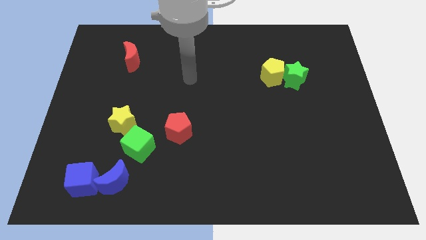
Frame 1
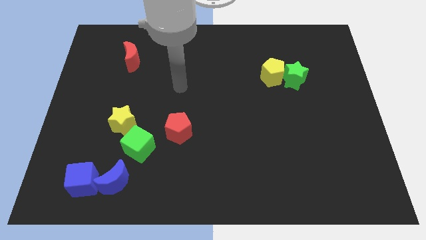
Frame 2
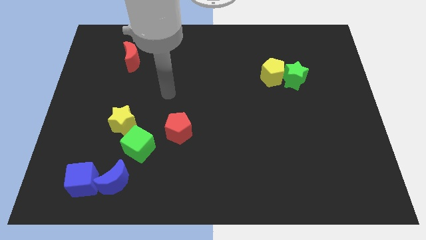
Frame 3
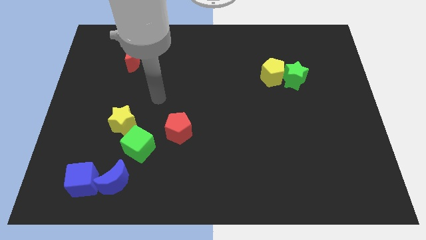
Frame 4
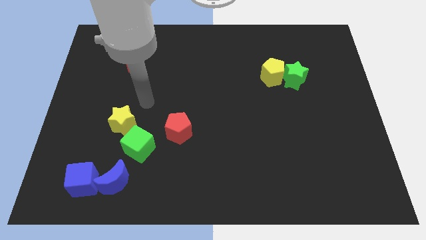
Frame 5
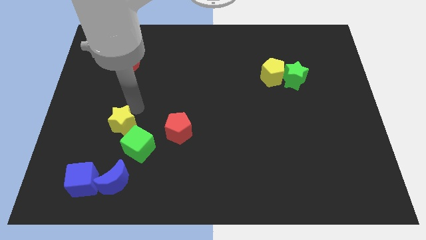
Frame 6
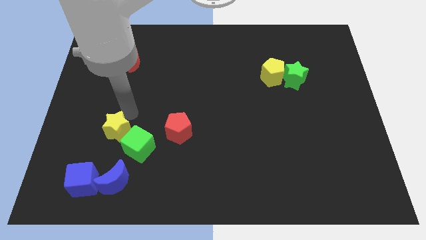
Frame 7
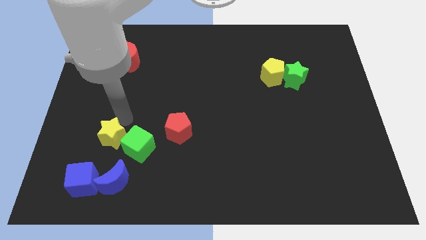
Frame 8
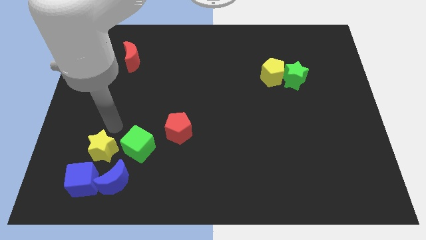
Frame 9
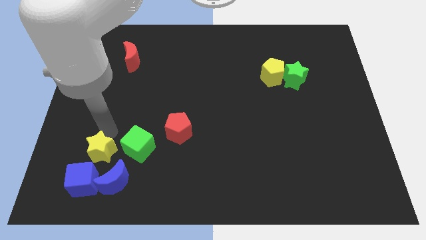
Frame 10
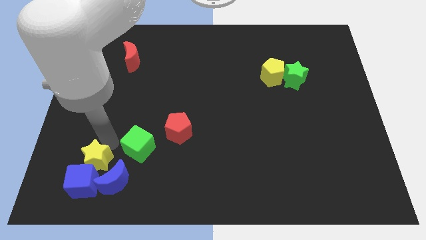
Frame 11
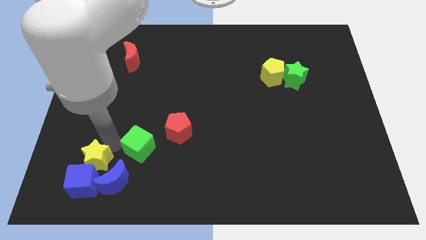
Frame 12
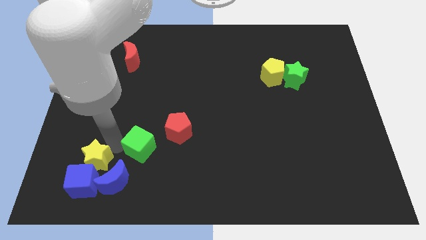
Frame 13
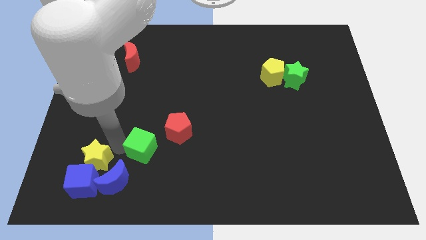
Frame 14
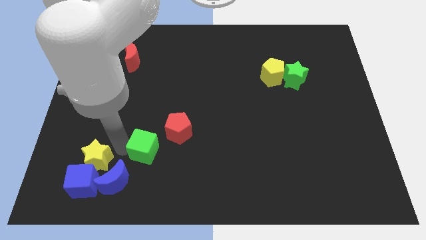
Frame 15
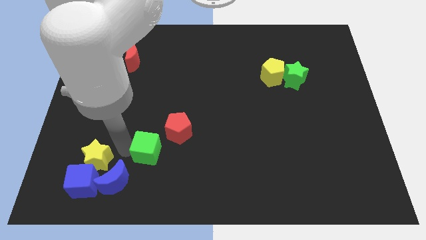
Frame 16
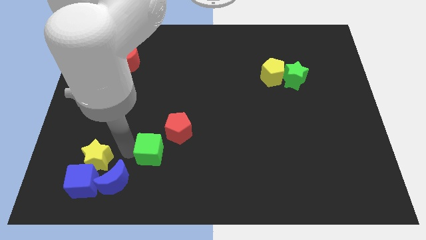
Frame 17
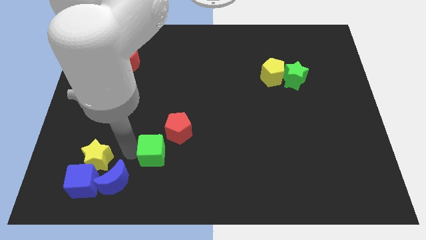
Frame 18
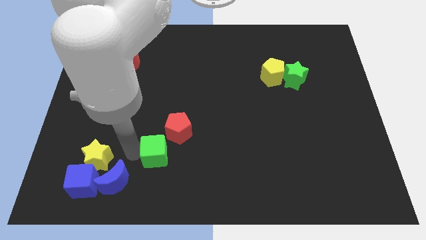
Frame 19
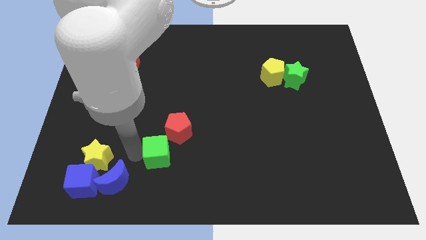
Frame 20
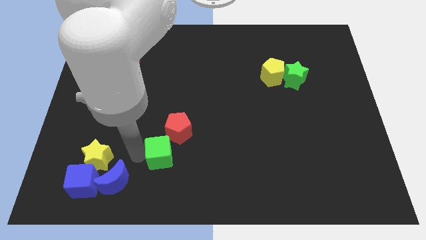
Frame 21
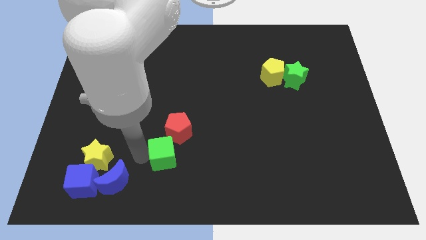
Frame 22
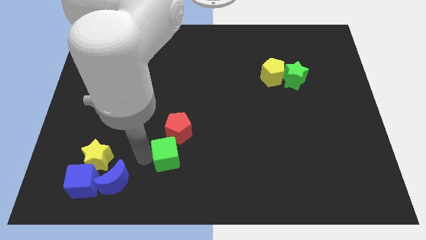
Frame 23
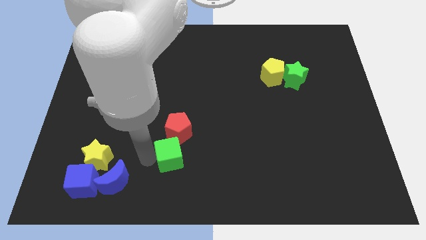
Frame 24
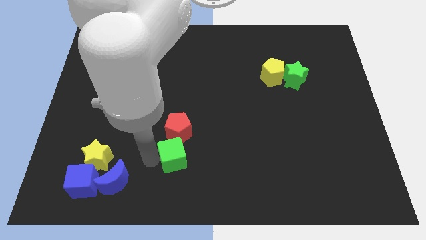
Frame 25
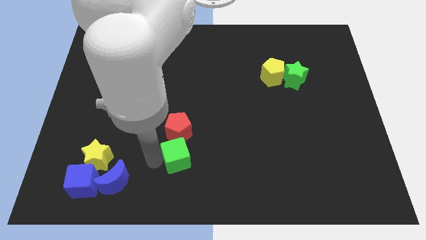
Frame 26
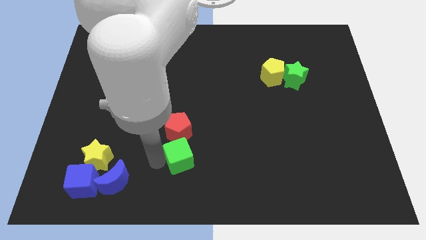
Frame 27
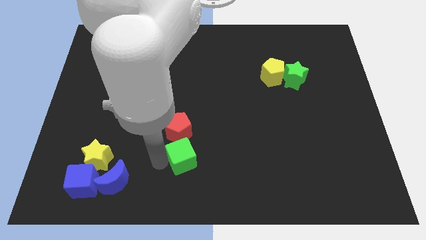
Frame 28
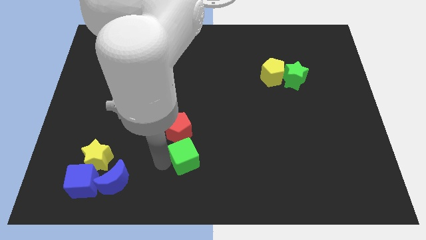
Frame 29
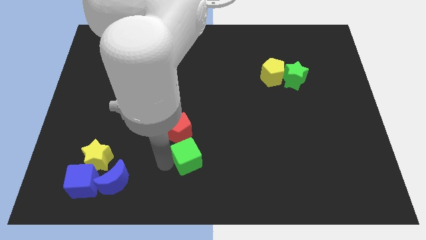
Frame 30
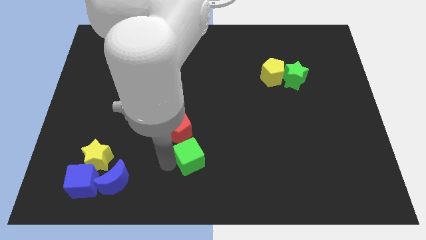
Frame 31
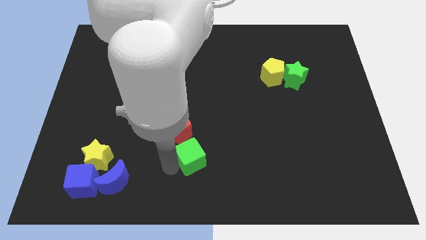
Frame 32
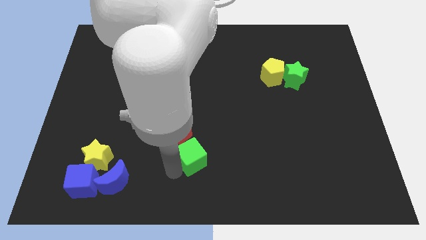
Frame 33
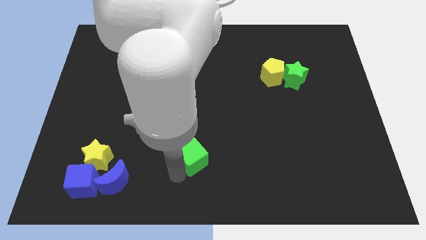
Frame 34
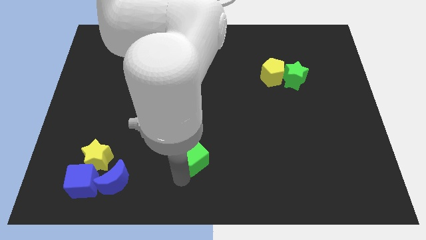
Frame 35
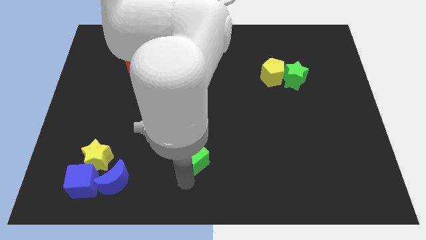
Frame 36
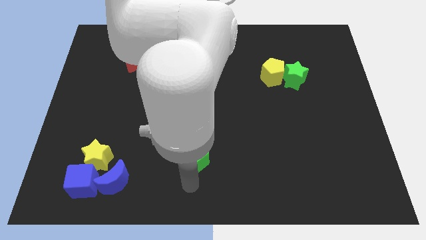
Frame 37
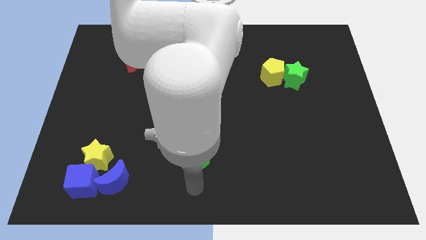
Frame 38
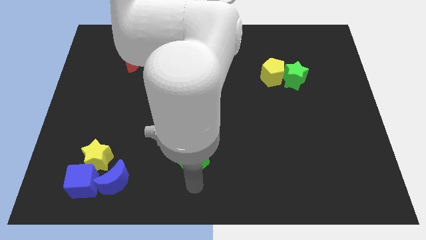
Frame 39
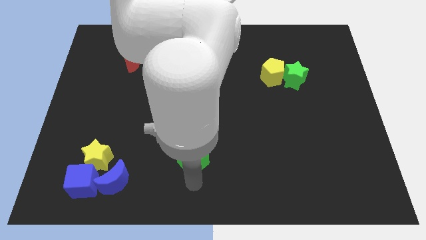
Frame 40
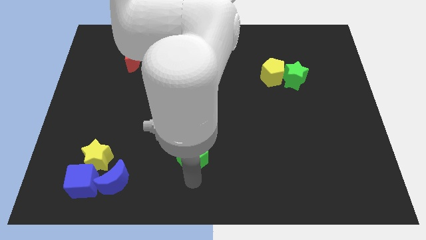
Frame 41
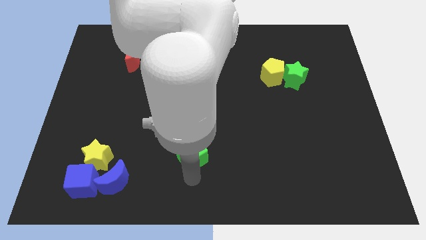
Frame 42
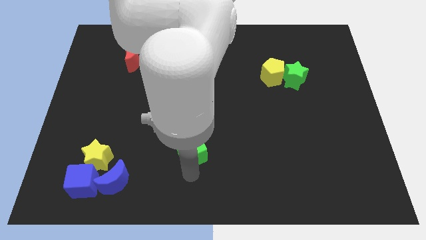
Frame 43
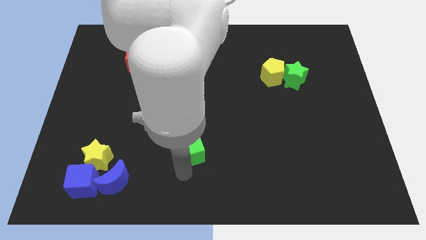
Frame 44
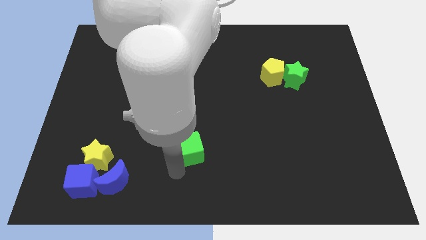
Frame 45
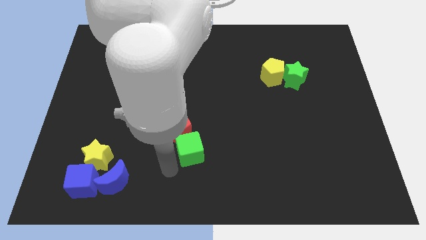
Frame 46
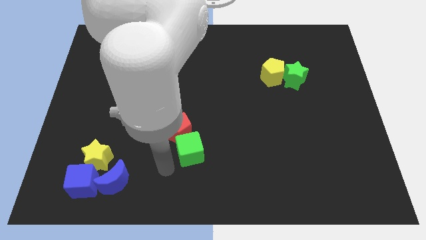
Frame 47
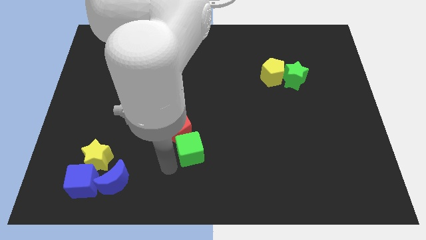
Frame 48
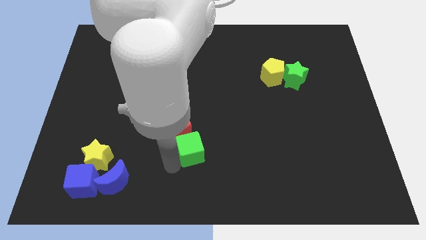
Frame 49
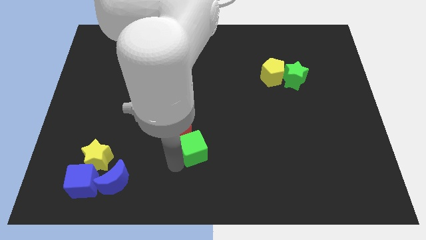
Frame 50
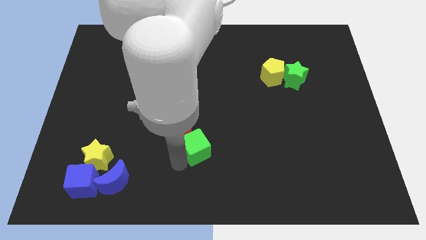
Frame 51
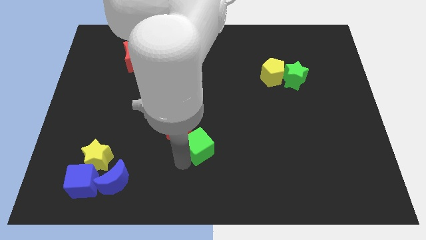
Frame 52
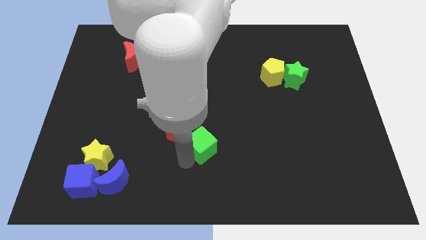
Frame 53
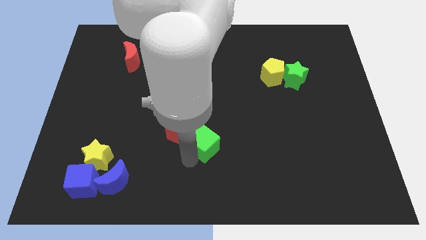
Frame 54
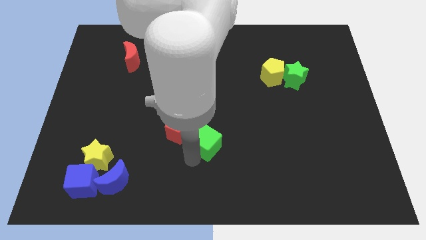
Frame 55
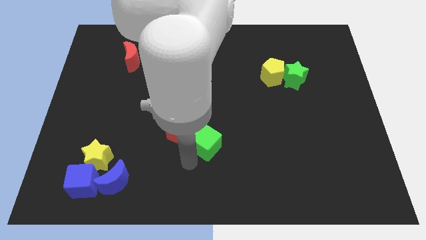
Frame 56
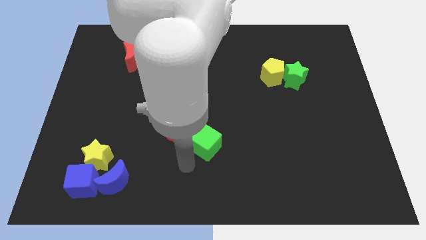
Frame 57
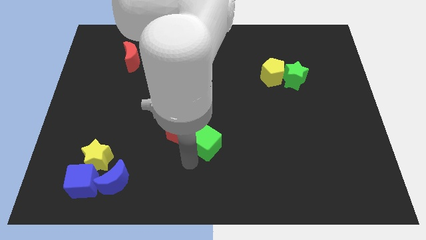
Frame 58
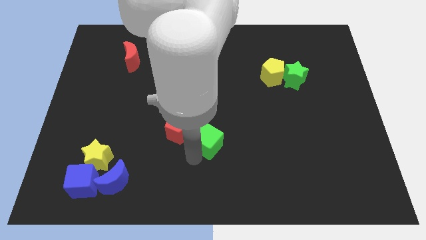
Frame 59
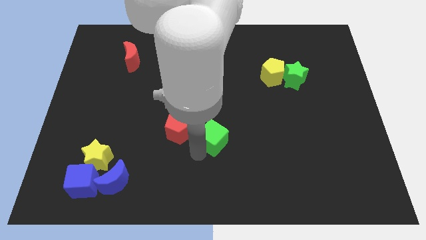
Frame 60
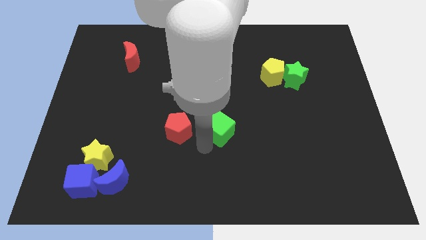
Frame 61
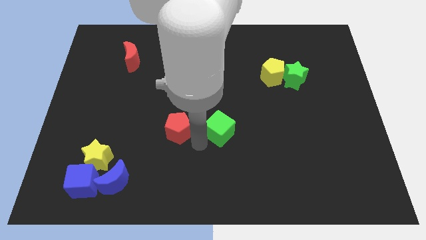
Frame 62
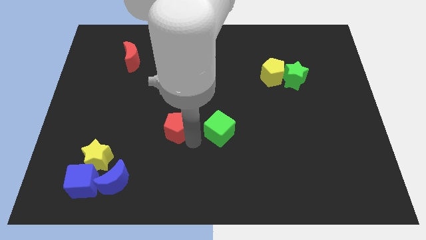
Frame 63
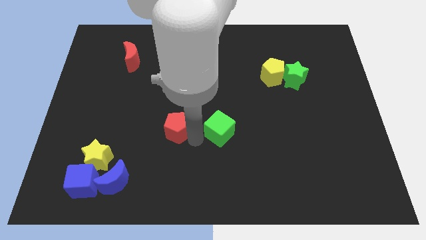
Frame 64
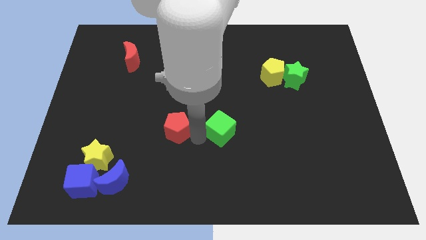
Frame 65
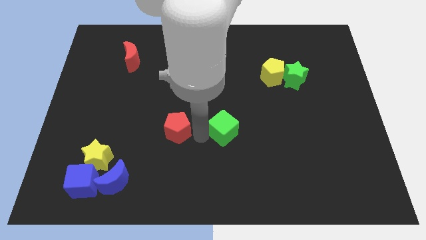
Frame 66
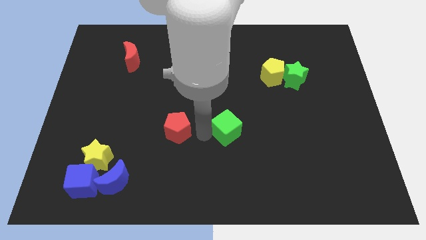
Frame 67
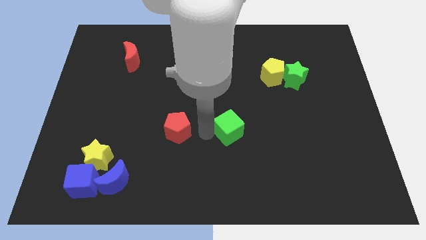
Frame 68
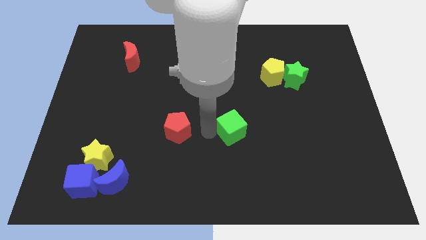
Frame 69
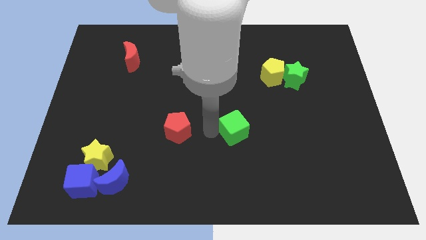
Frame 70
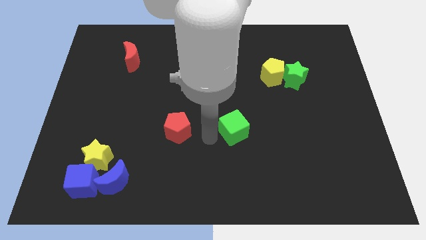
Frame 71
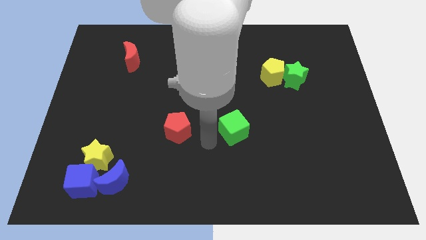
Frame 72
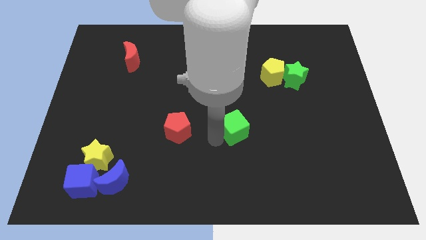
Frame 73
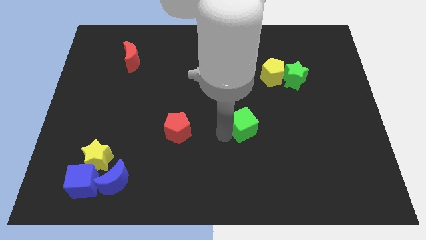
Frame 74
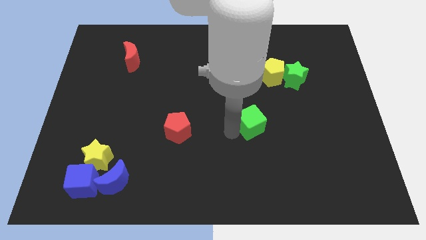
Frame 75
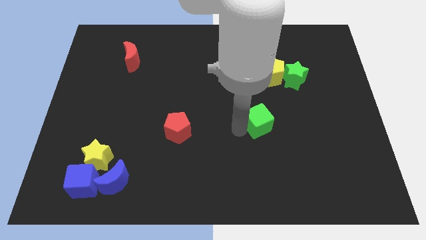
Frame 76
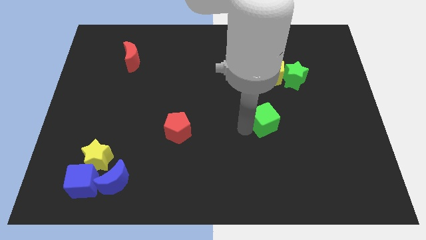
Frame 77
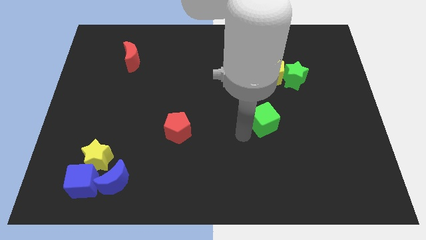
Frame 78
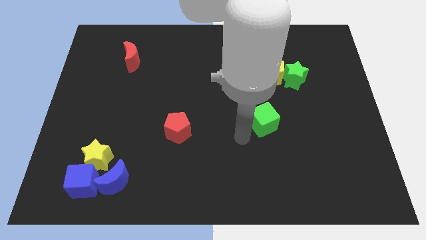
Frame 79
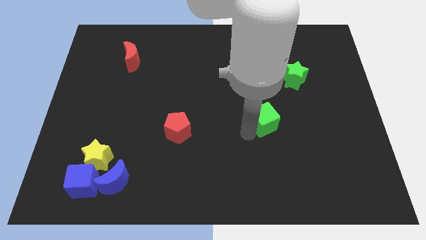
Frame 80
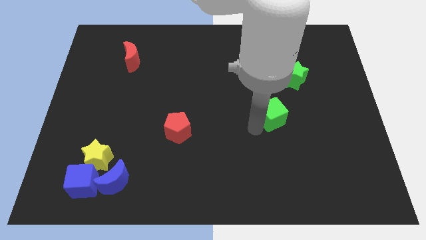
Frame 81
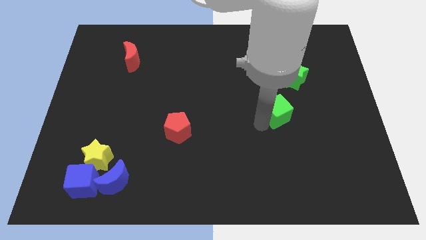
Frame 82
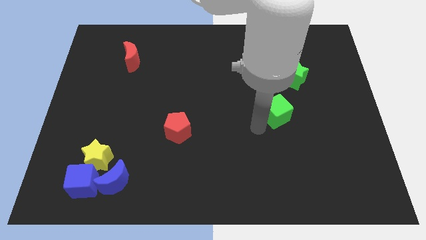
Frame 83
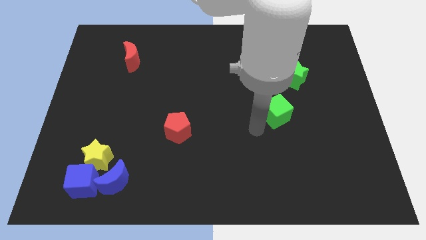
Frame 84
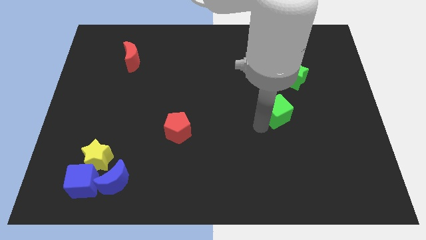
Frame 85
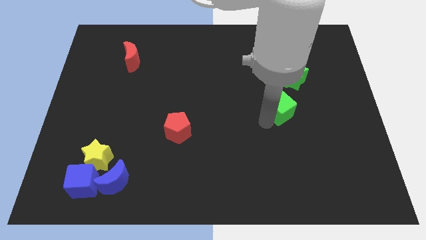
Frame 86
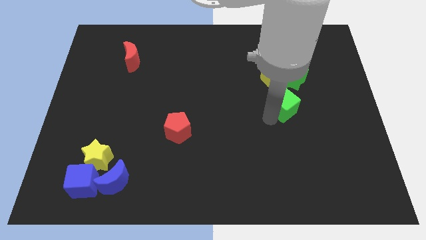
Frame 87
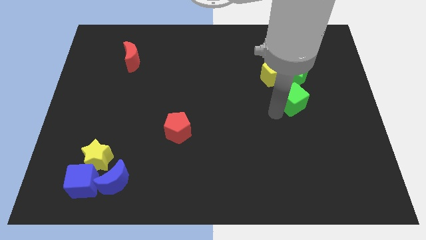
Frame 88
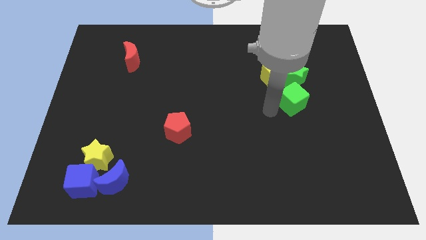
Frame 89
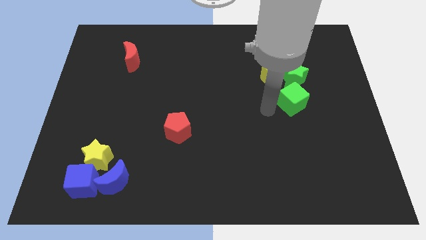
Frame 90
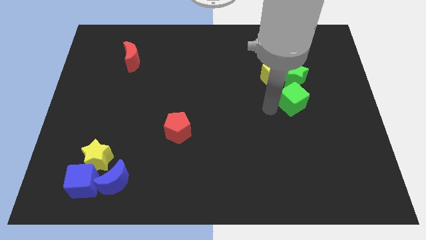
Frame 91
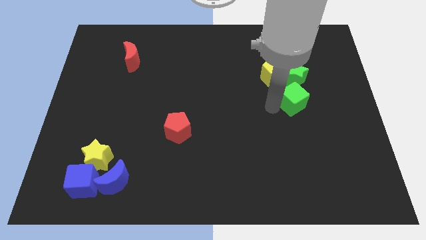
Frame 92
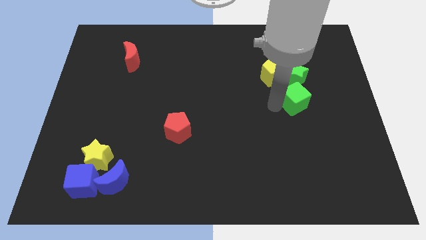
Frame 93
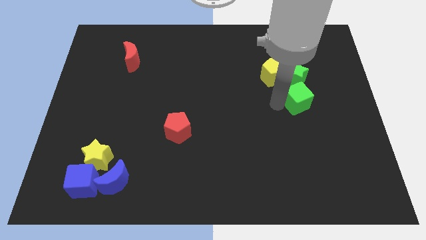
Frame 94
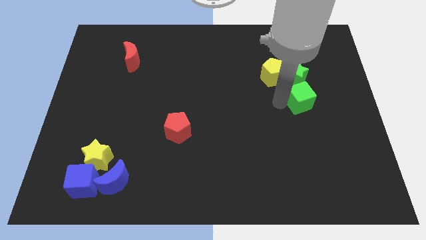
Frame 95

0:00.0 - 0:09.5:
slide the green cube to the bottom right side of the green star
